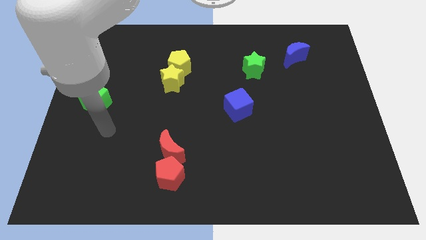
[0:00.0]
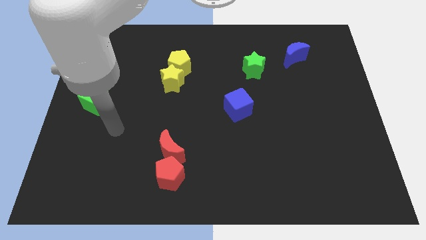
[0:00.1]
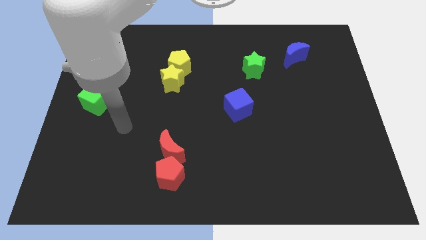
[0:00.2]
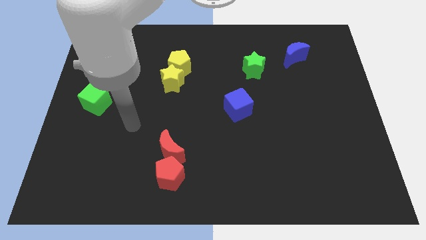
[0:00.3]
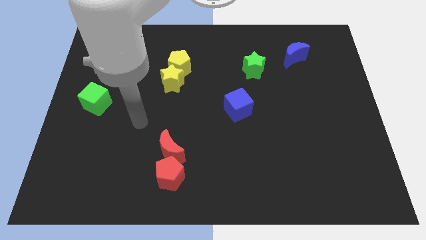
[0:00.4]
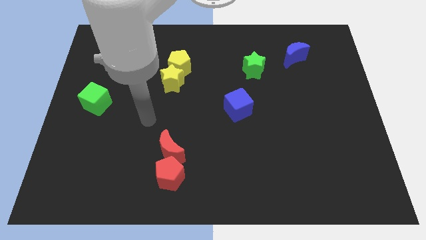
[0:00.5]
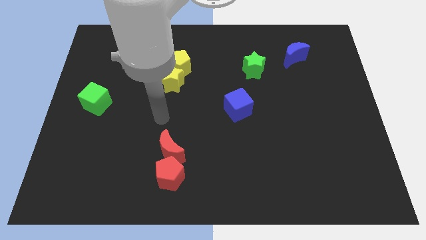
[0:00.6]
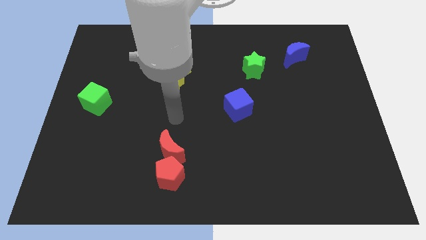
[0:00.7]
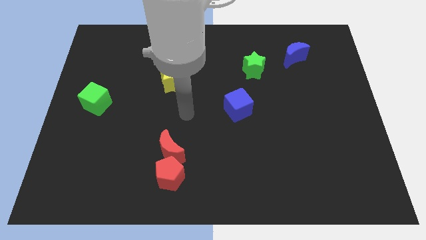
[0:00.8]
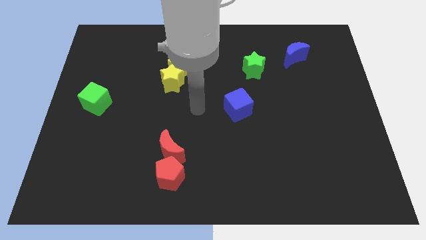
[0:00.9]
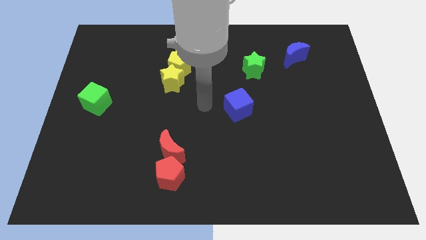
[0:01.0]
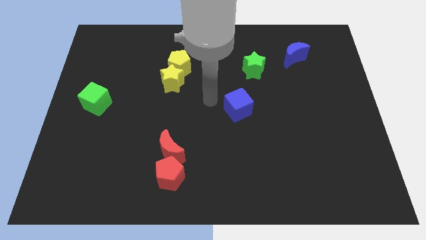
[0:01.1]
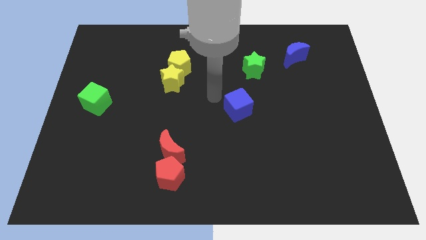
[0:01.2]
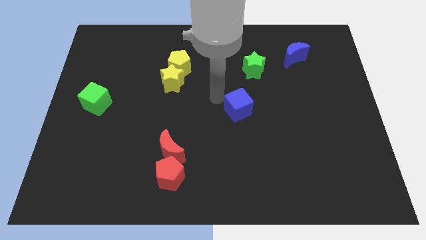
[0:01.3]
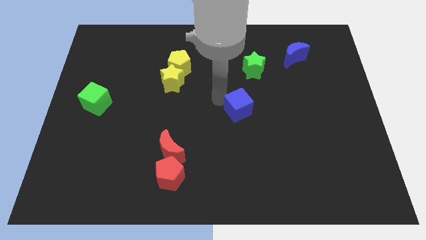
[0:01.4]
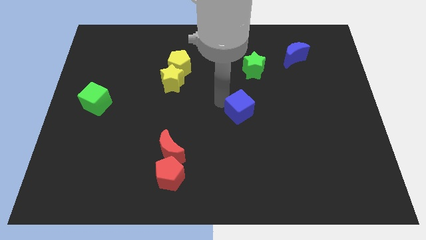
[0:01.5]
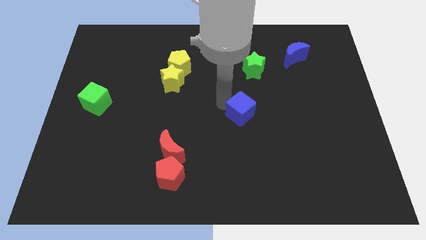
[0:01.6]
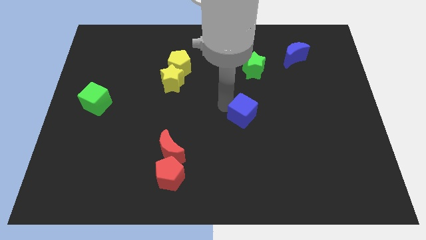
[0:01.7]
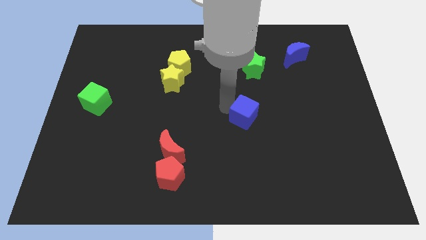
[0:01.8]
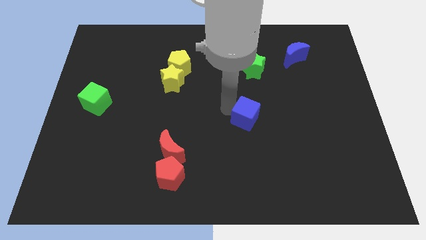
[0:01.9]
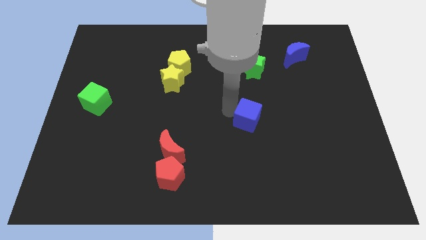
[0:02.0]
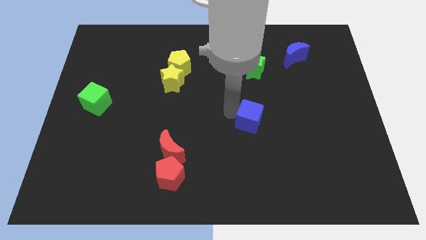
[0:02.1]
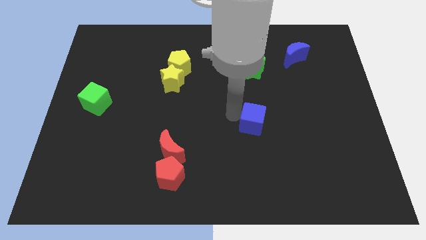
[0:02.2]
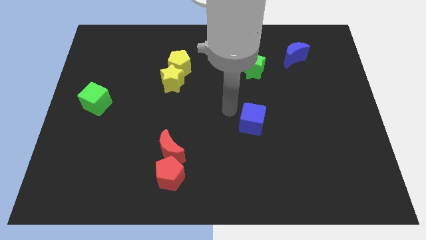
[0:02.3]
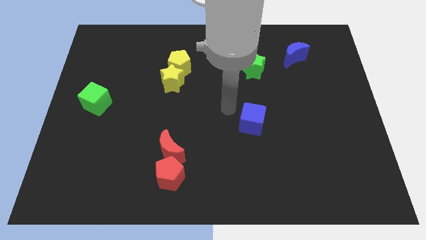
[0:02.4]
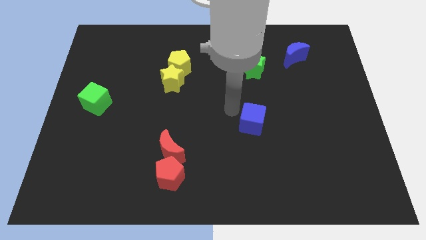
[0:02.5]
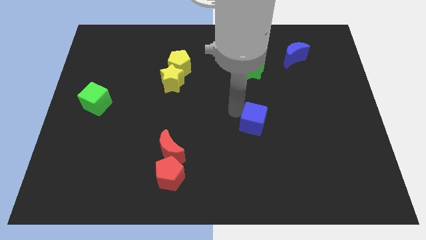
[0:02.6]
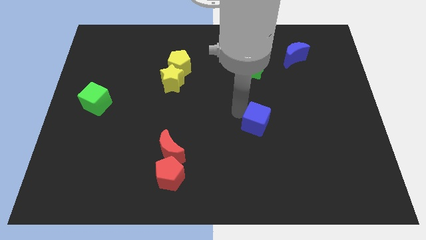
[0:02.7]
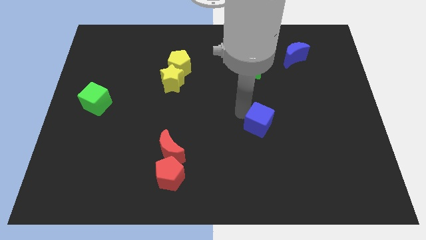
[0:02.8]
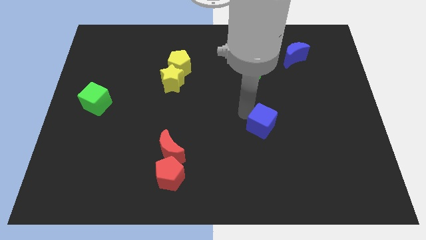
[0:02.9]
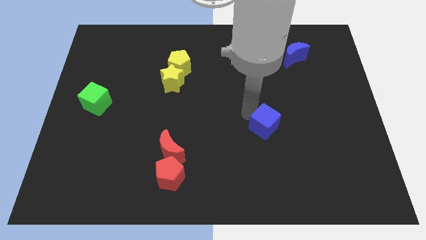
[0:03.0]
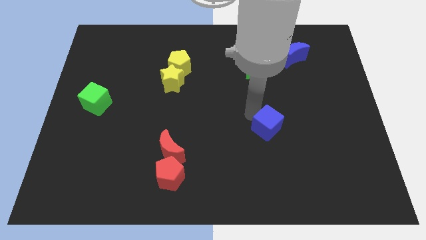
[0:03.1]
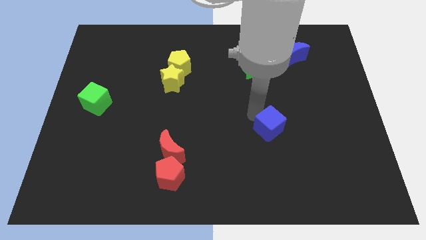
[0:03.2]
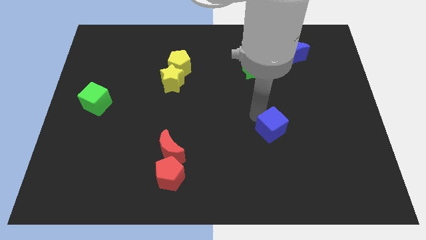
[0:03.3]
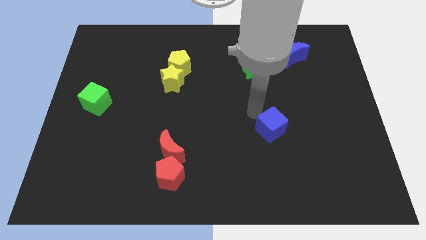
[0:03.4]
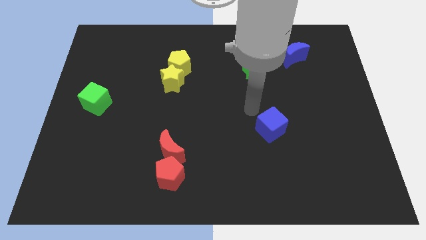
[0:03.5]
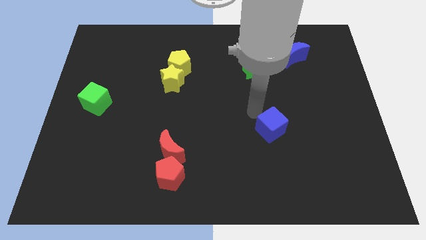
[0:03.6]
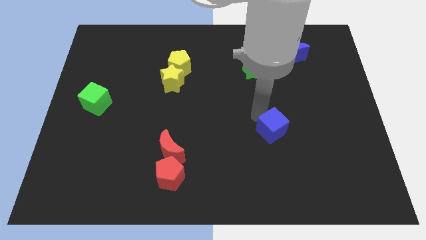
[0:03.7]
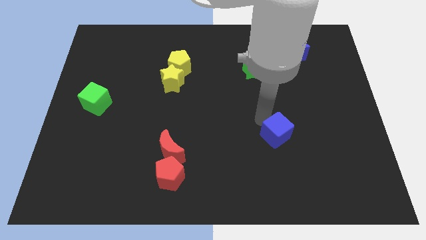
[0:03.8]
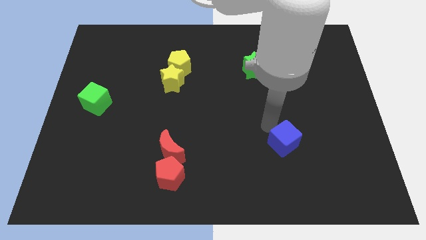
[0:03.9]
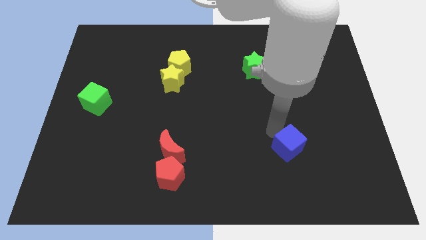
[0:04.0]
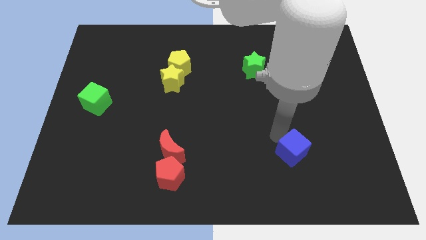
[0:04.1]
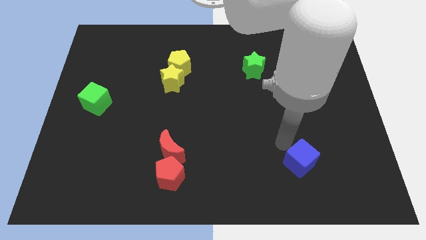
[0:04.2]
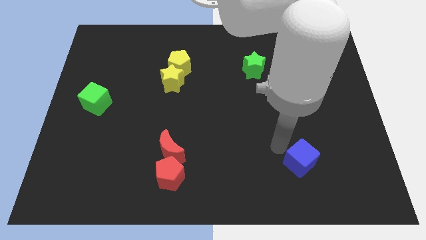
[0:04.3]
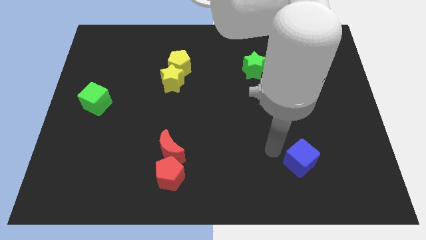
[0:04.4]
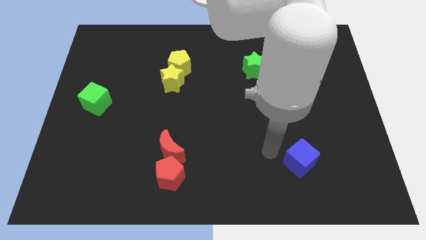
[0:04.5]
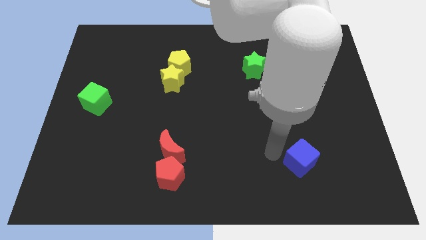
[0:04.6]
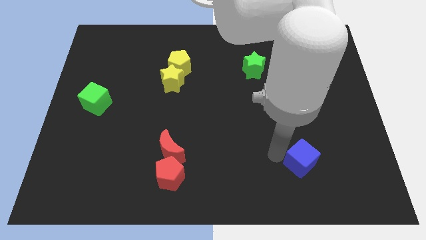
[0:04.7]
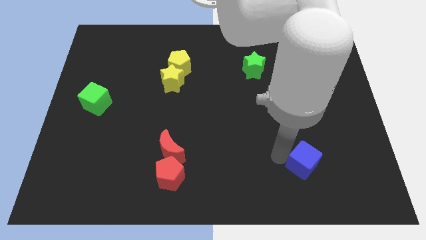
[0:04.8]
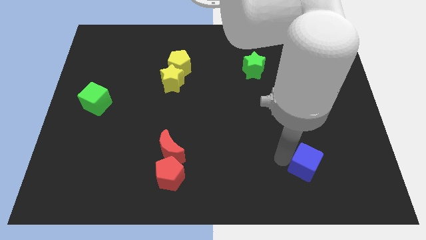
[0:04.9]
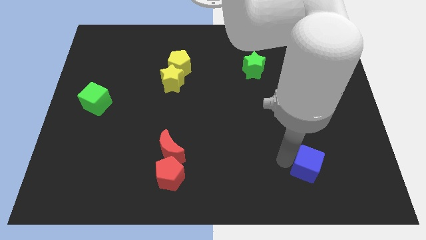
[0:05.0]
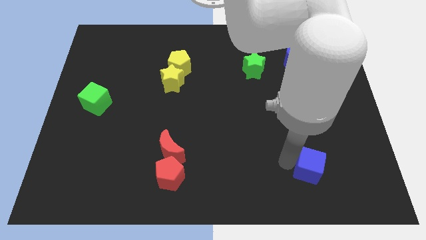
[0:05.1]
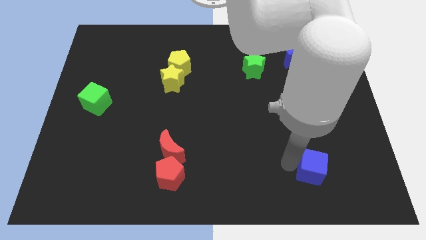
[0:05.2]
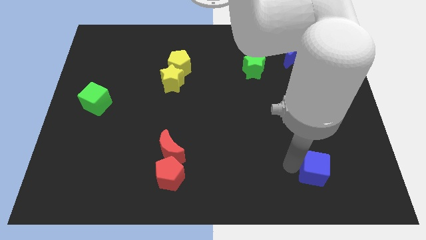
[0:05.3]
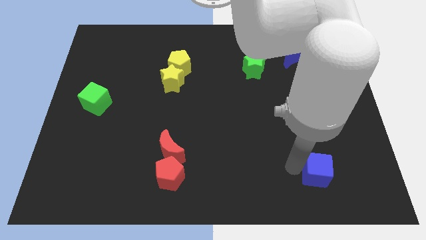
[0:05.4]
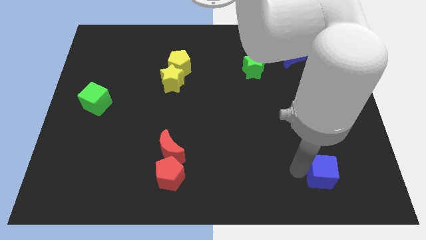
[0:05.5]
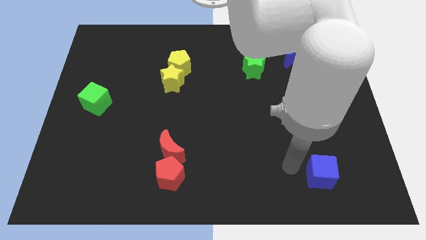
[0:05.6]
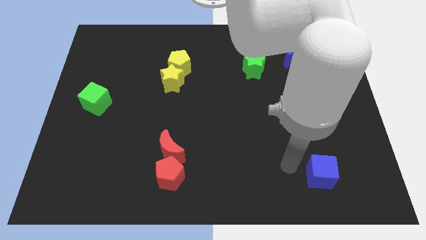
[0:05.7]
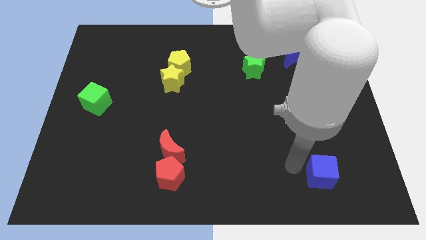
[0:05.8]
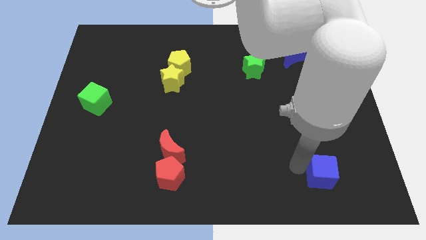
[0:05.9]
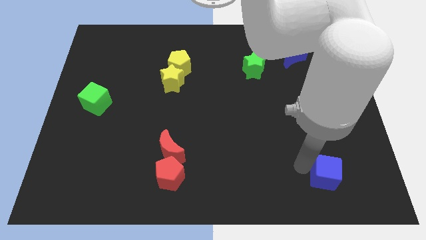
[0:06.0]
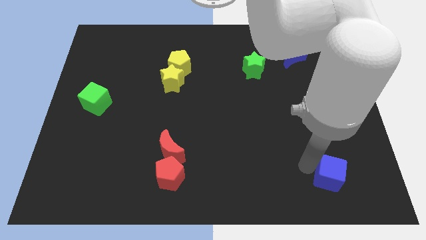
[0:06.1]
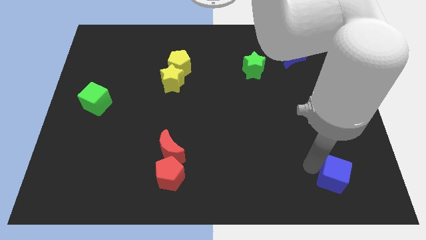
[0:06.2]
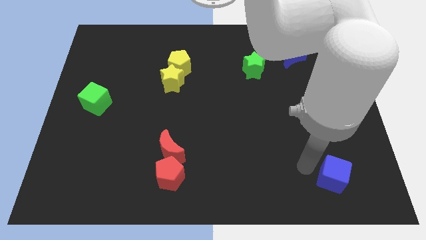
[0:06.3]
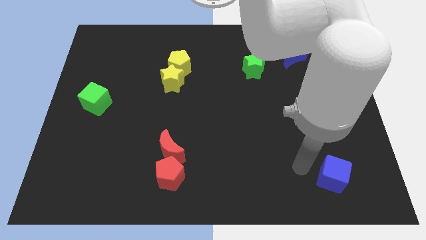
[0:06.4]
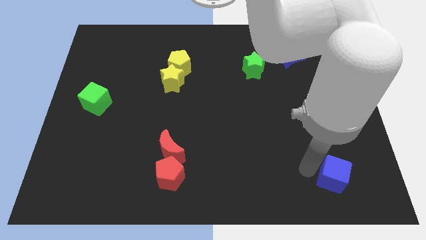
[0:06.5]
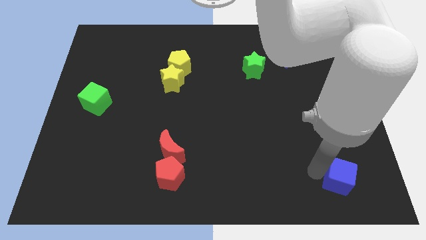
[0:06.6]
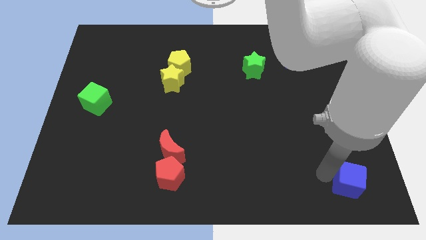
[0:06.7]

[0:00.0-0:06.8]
move the blue cube to the lower right corner
